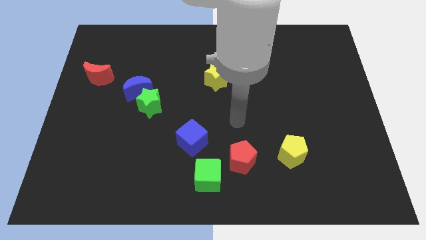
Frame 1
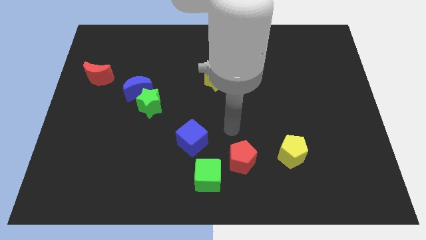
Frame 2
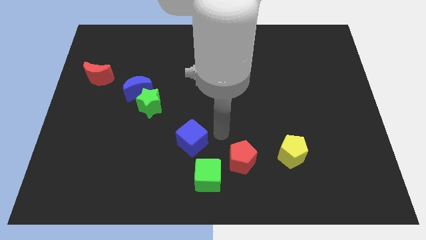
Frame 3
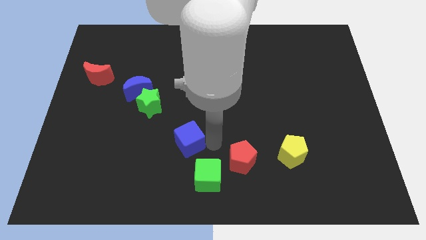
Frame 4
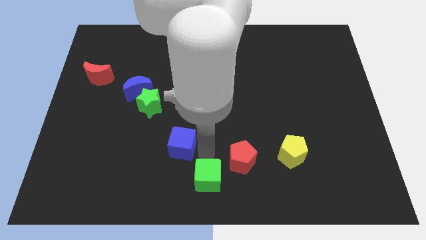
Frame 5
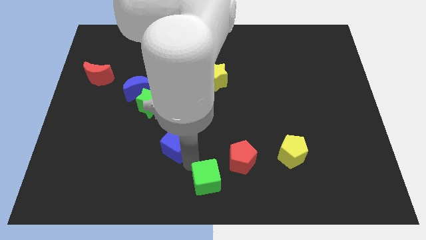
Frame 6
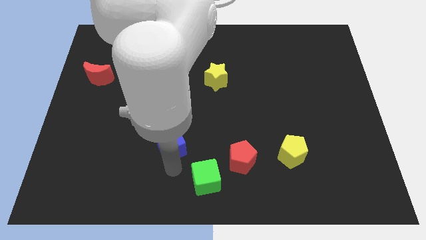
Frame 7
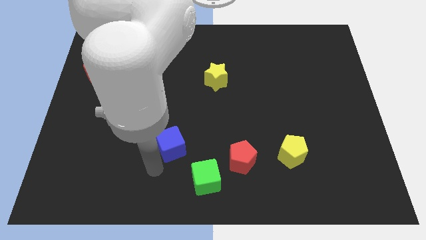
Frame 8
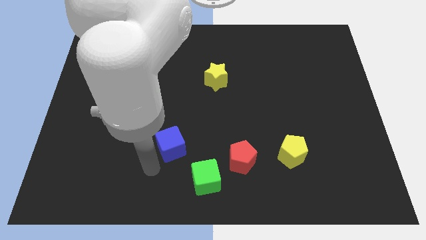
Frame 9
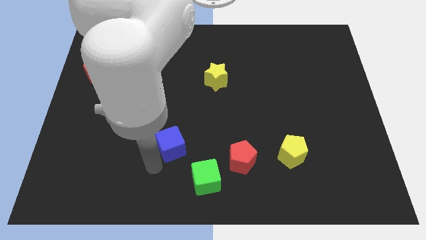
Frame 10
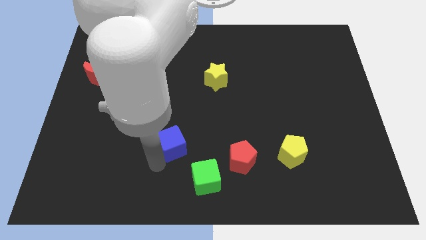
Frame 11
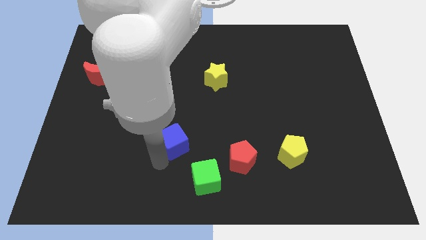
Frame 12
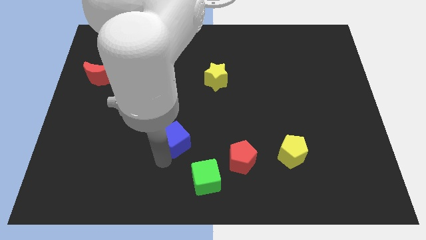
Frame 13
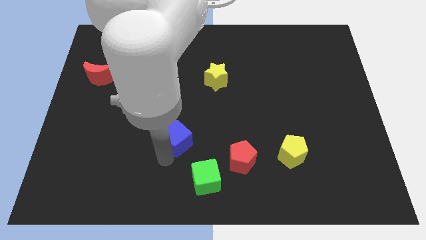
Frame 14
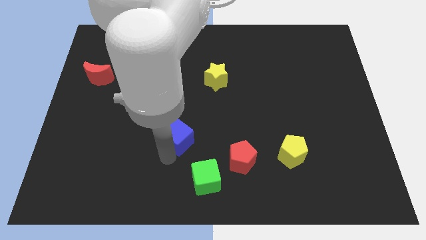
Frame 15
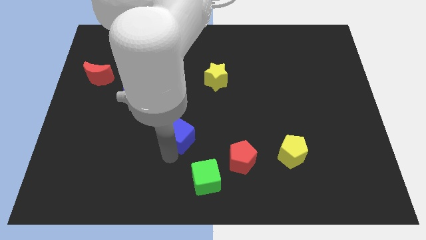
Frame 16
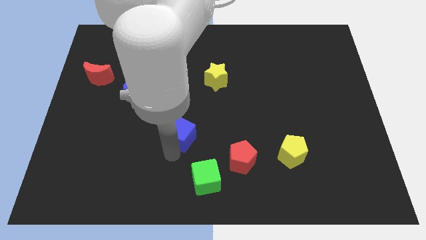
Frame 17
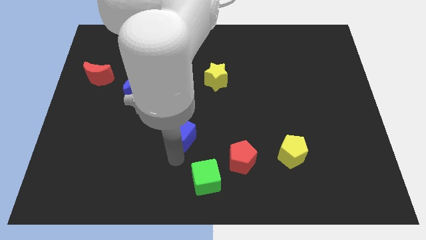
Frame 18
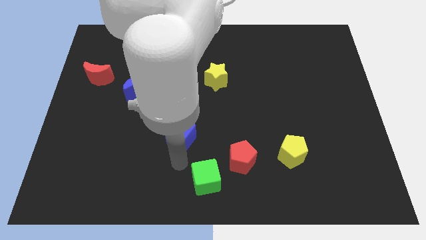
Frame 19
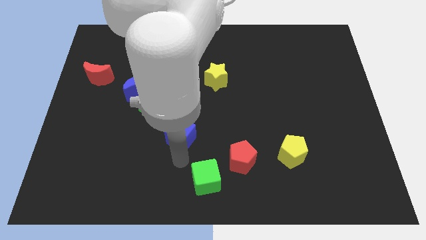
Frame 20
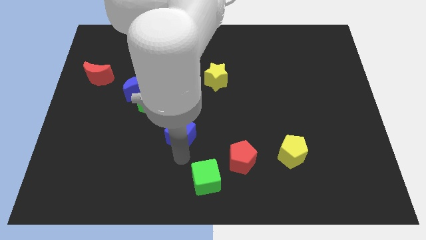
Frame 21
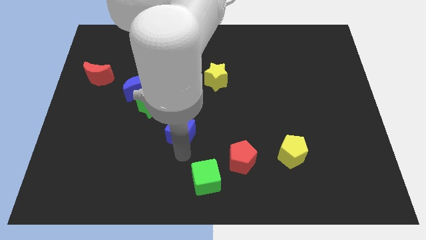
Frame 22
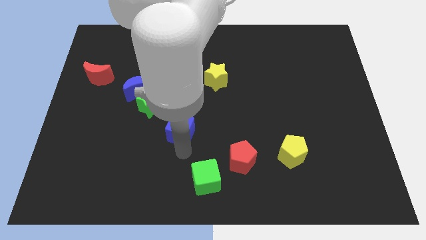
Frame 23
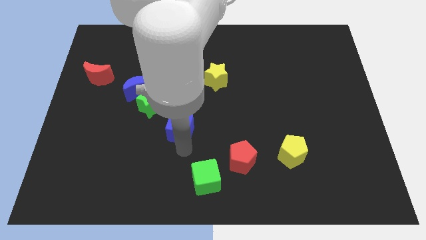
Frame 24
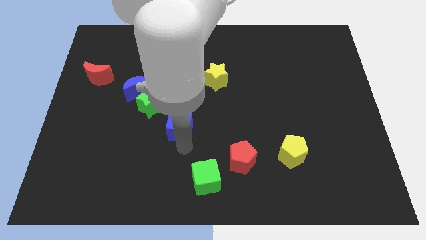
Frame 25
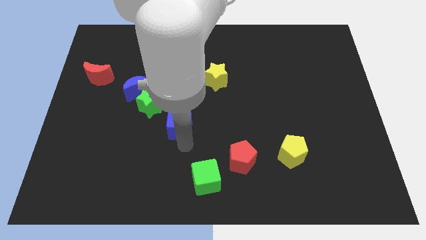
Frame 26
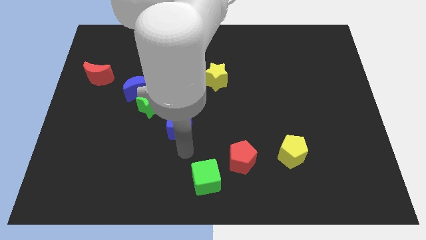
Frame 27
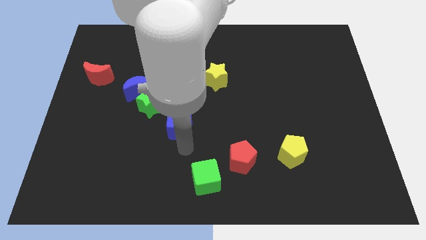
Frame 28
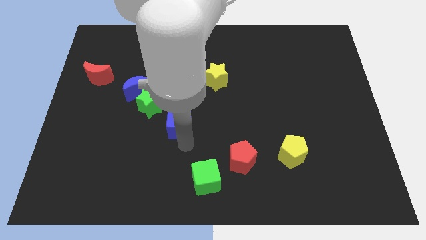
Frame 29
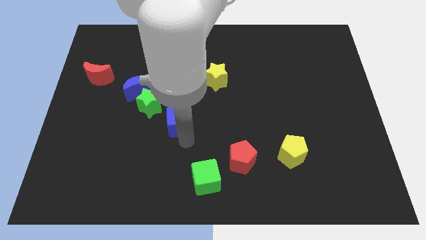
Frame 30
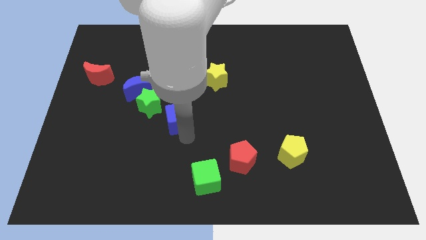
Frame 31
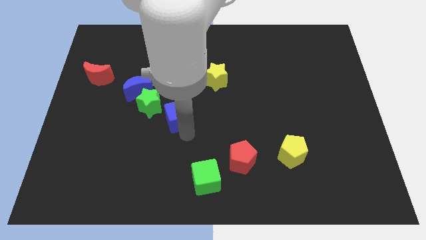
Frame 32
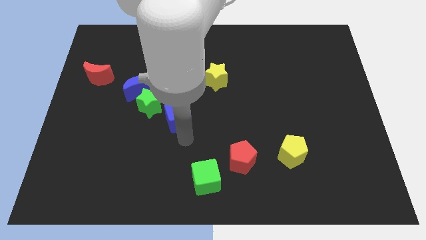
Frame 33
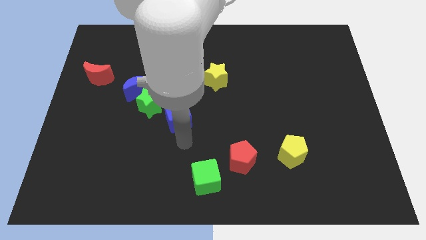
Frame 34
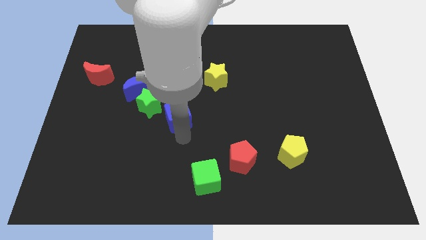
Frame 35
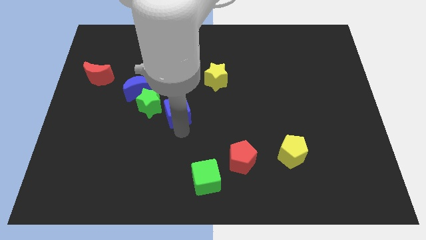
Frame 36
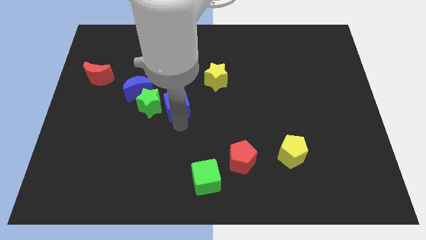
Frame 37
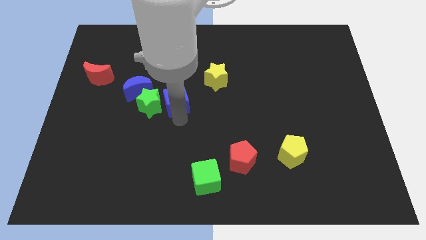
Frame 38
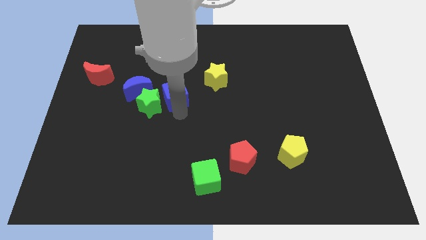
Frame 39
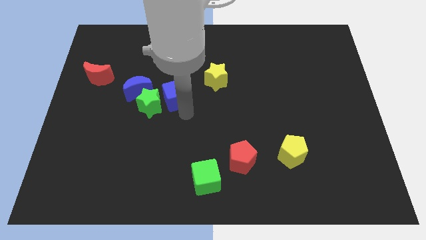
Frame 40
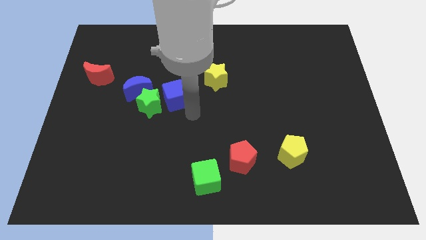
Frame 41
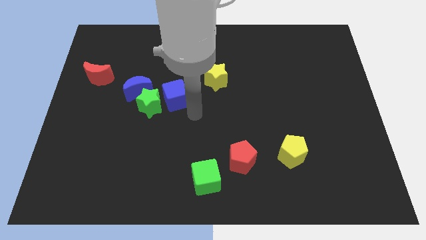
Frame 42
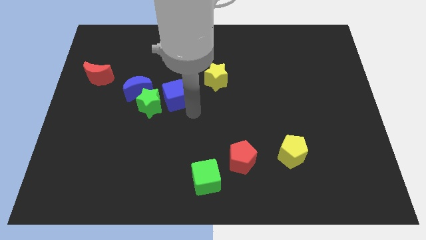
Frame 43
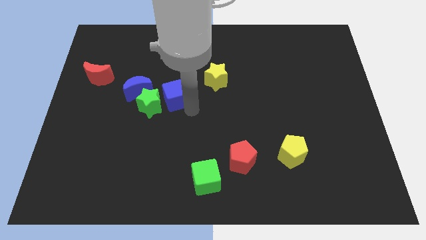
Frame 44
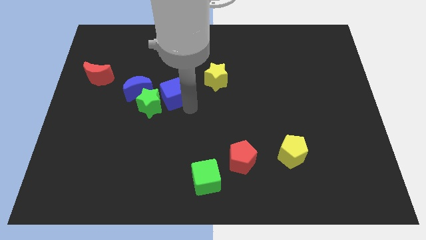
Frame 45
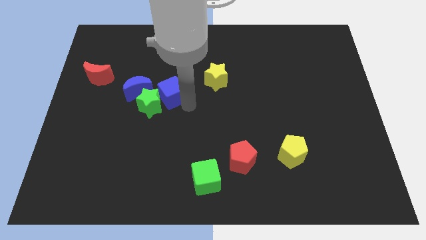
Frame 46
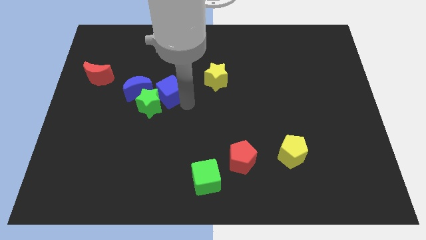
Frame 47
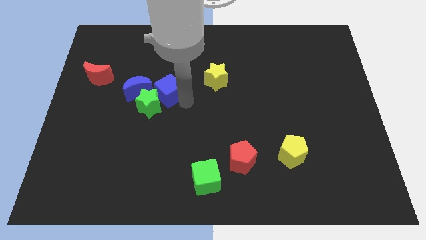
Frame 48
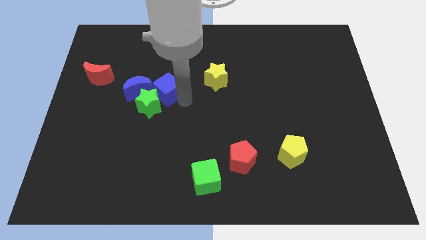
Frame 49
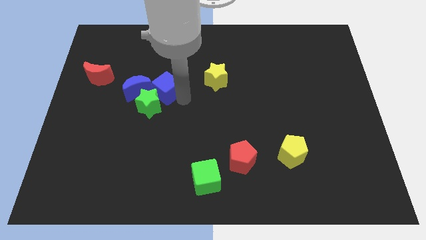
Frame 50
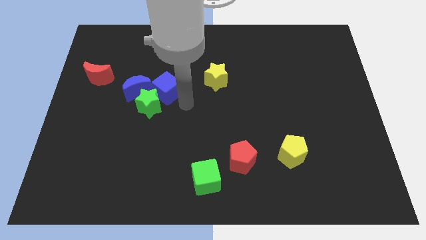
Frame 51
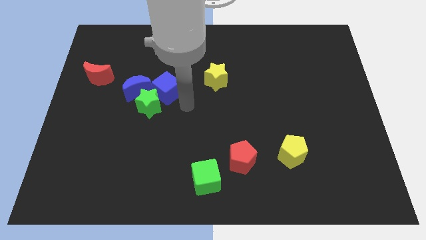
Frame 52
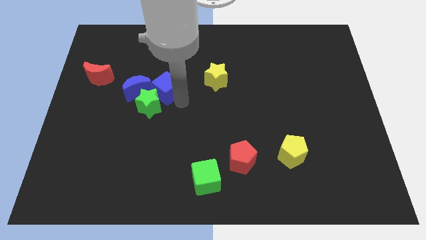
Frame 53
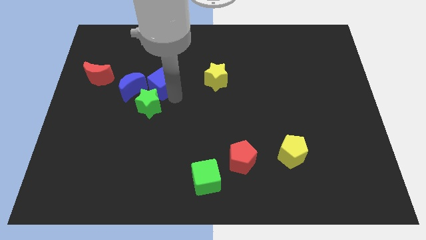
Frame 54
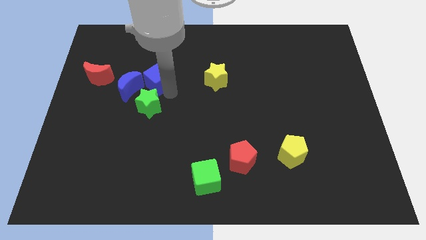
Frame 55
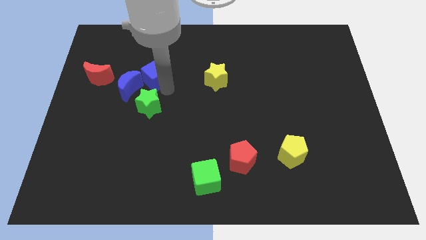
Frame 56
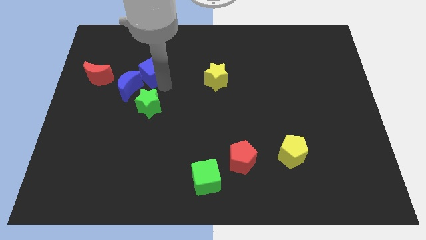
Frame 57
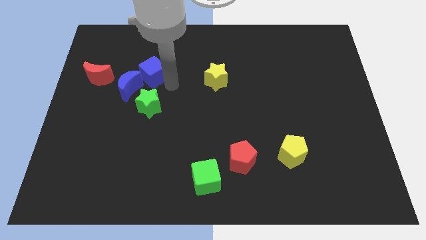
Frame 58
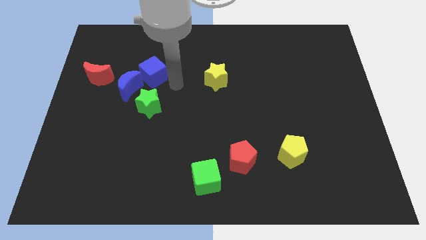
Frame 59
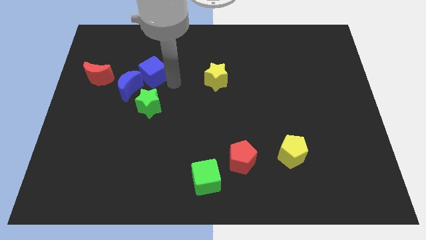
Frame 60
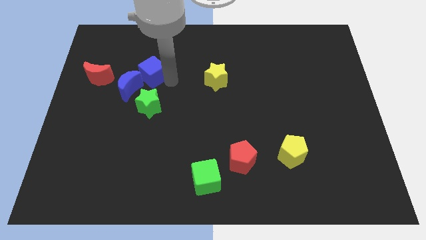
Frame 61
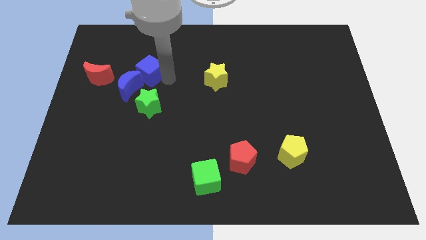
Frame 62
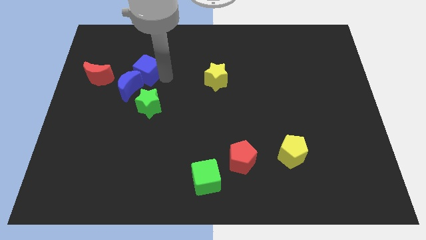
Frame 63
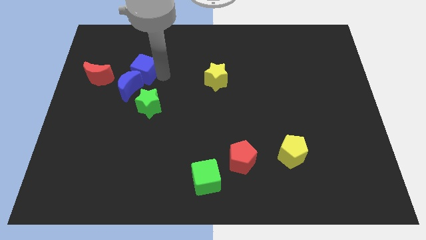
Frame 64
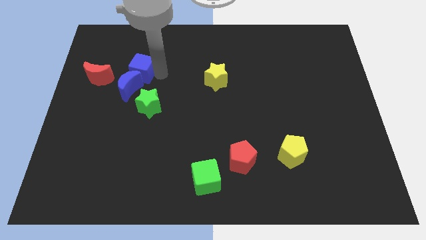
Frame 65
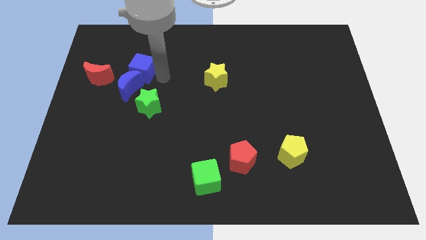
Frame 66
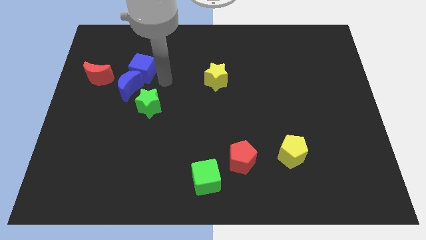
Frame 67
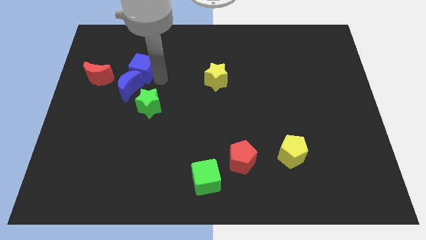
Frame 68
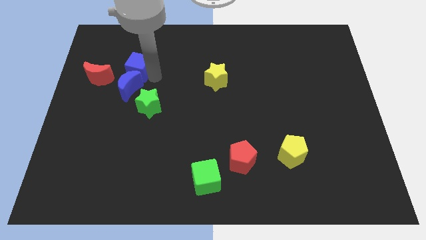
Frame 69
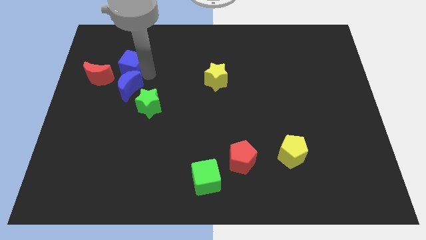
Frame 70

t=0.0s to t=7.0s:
put the blue cube to the top right of the red moon
